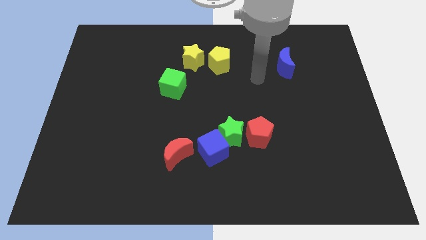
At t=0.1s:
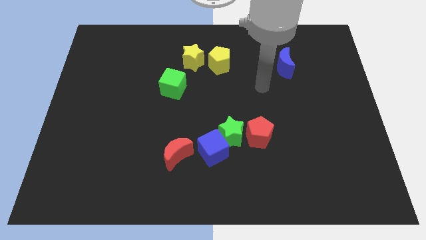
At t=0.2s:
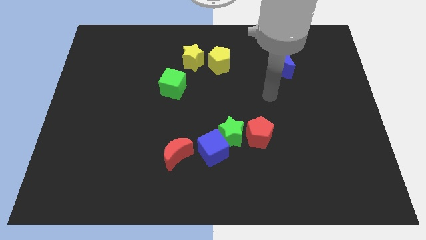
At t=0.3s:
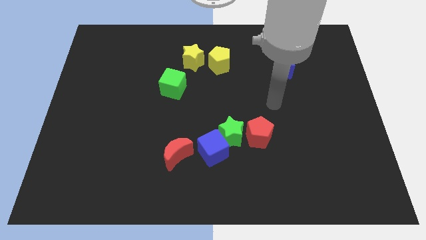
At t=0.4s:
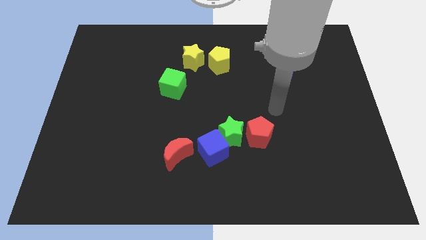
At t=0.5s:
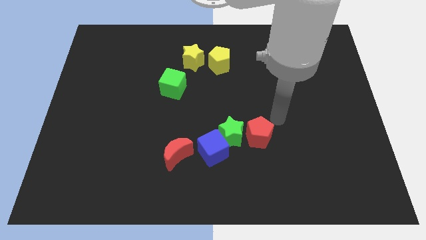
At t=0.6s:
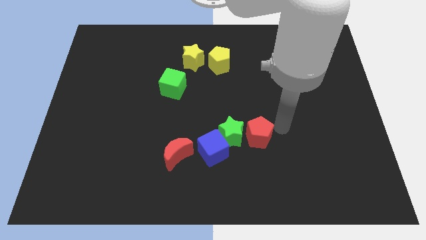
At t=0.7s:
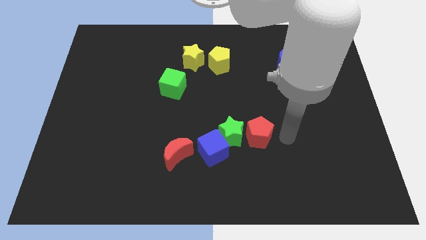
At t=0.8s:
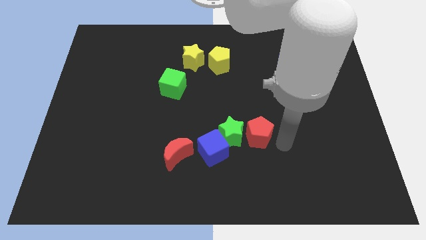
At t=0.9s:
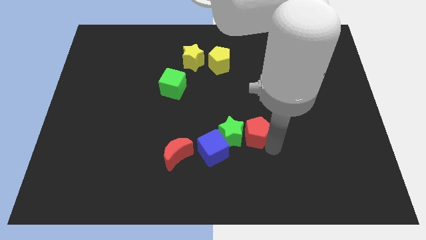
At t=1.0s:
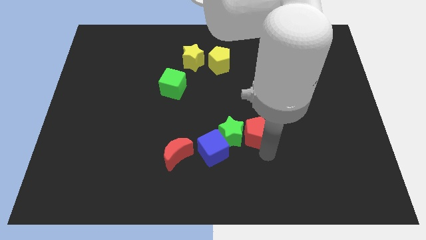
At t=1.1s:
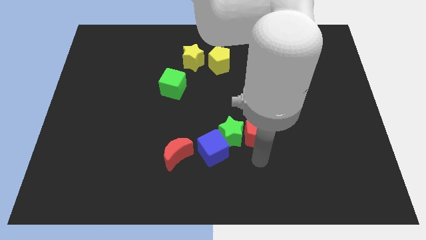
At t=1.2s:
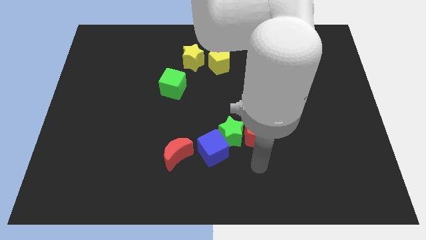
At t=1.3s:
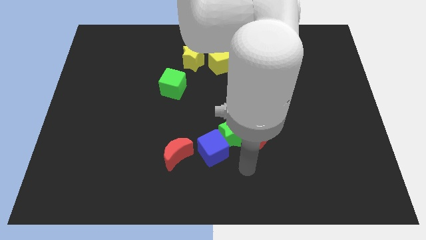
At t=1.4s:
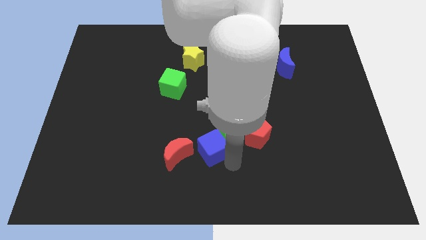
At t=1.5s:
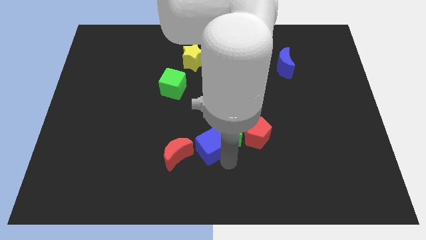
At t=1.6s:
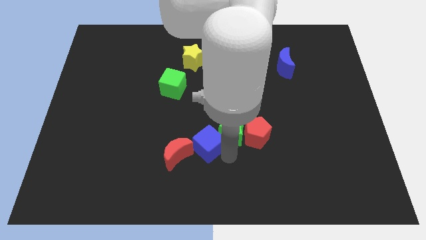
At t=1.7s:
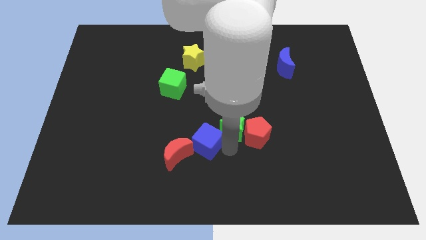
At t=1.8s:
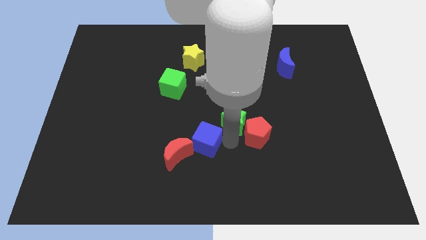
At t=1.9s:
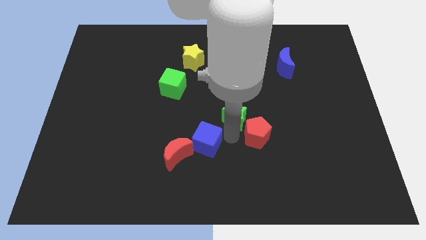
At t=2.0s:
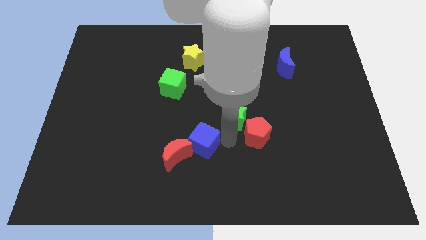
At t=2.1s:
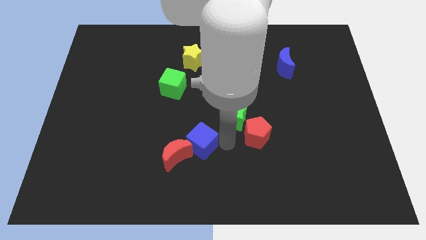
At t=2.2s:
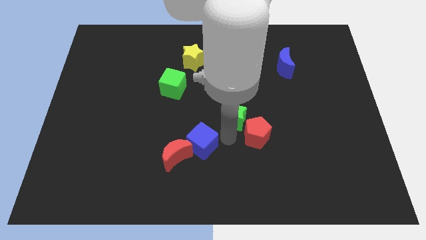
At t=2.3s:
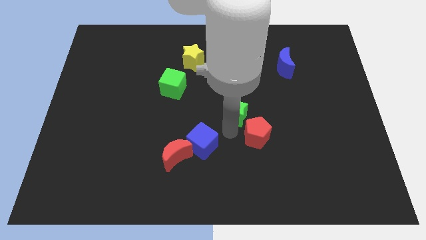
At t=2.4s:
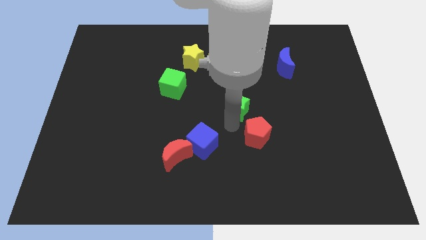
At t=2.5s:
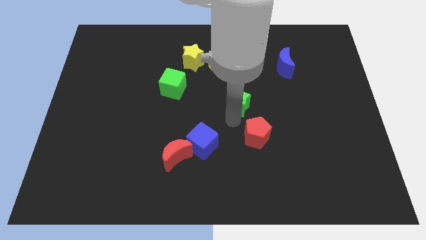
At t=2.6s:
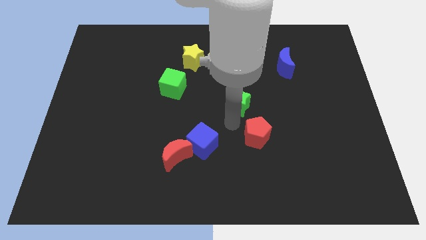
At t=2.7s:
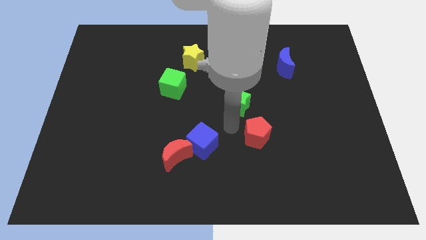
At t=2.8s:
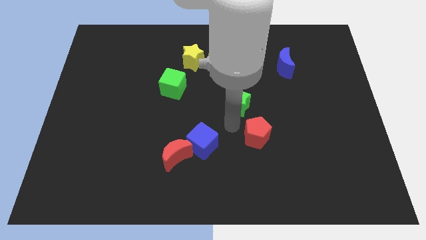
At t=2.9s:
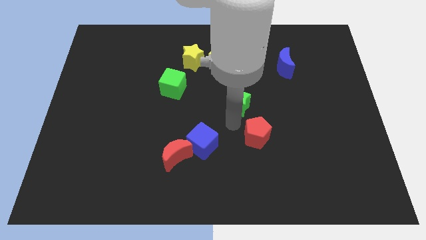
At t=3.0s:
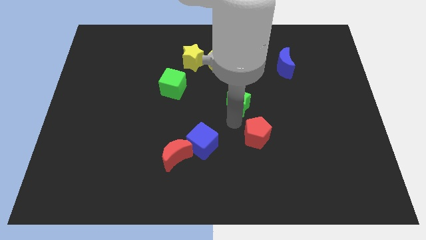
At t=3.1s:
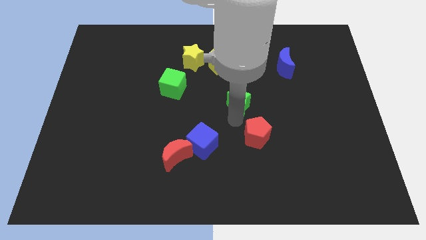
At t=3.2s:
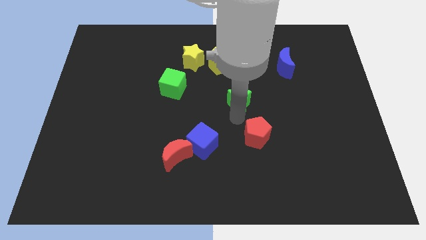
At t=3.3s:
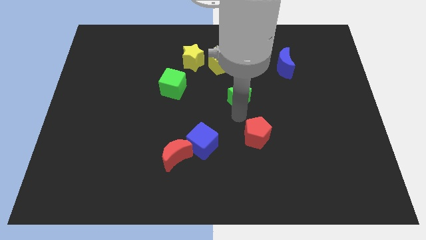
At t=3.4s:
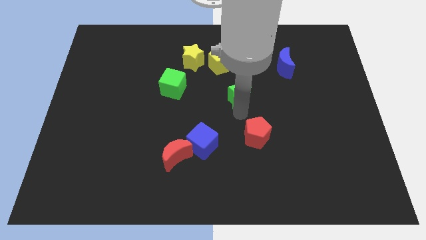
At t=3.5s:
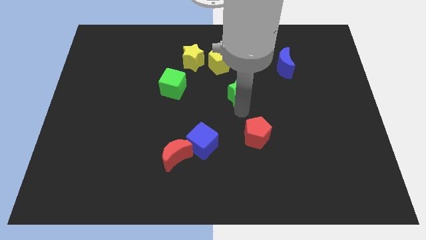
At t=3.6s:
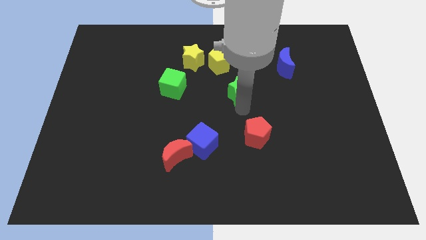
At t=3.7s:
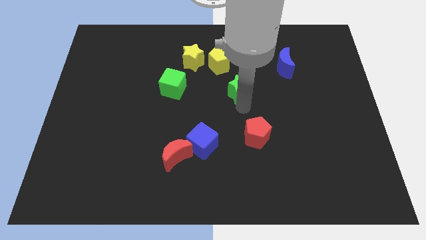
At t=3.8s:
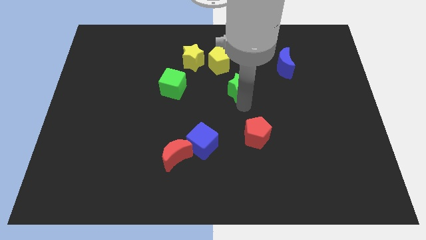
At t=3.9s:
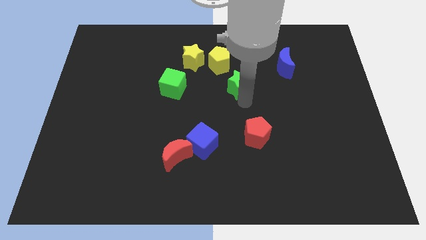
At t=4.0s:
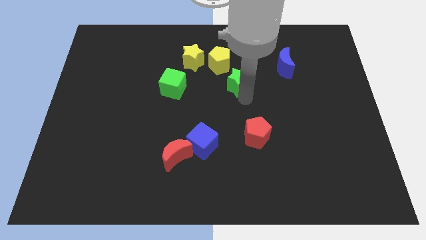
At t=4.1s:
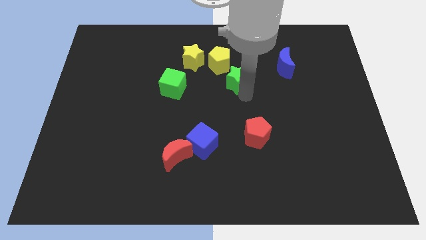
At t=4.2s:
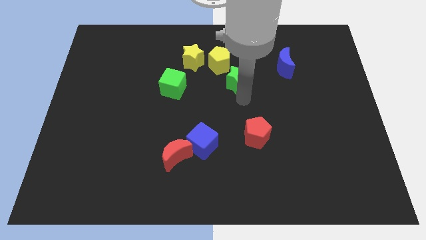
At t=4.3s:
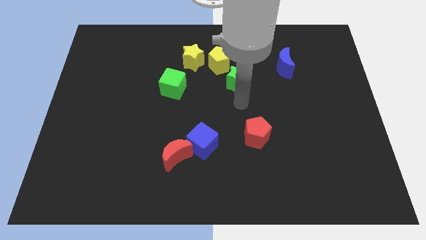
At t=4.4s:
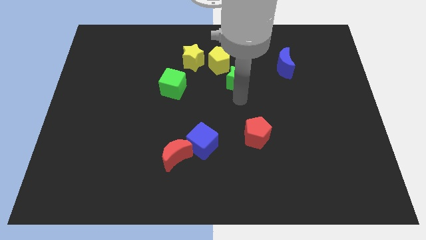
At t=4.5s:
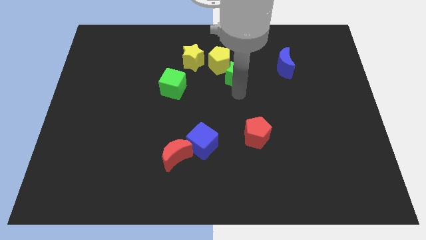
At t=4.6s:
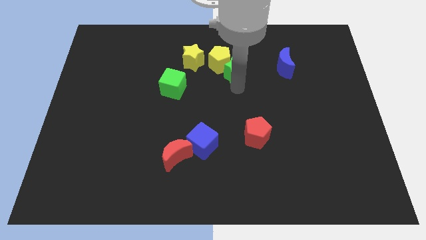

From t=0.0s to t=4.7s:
push the green star right of the yellow star

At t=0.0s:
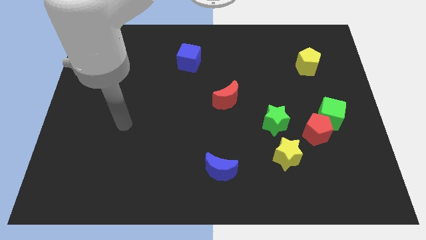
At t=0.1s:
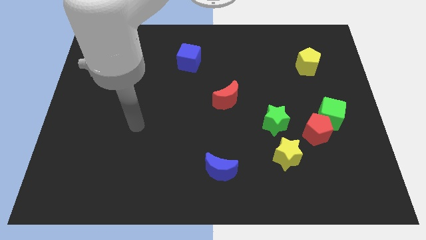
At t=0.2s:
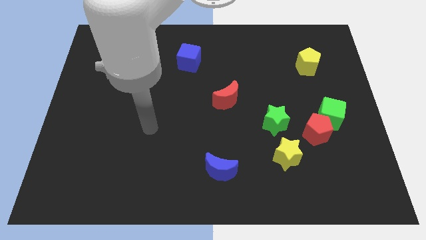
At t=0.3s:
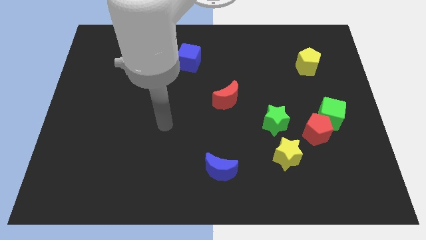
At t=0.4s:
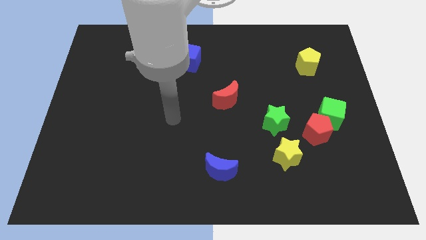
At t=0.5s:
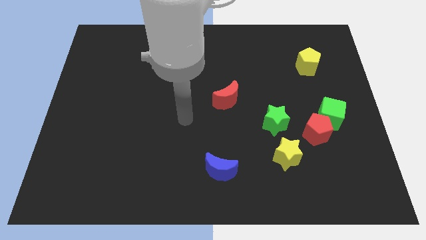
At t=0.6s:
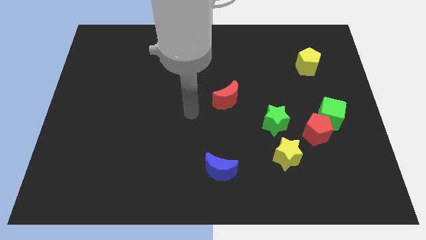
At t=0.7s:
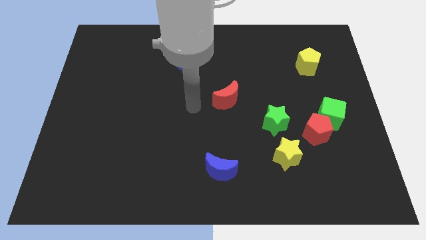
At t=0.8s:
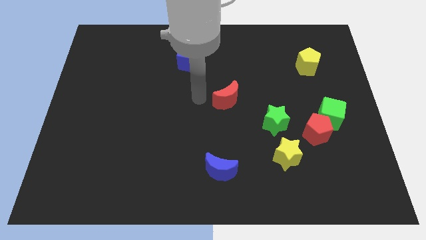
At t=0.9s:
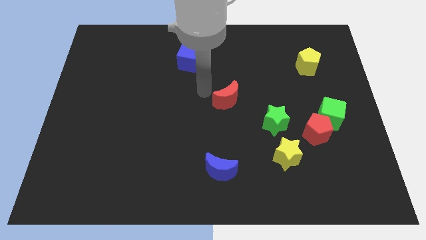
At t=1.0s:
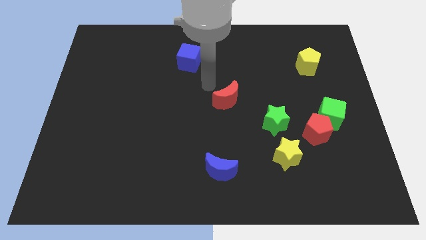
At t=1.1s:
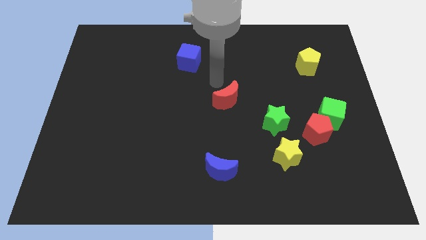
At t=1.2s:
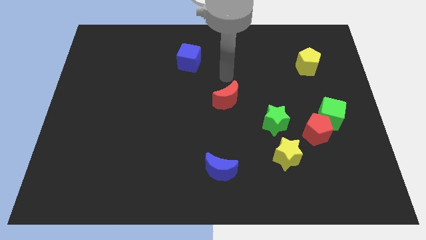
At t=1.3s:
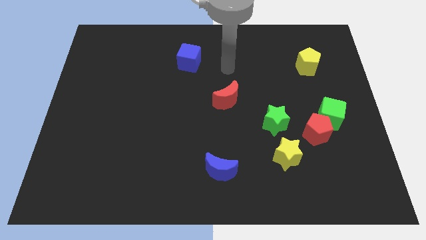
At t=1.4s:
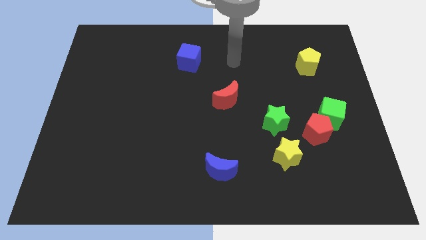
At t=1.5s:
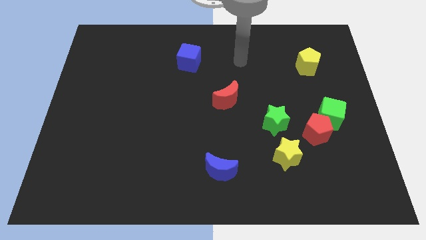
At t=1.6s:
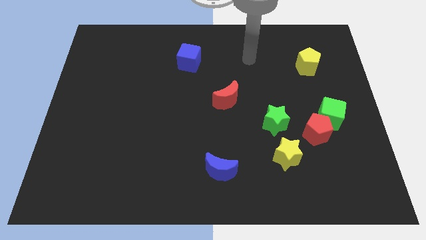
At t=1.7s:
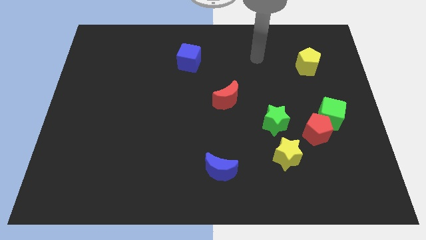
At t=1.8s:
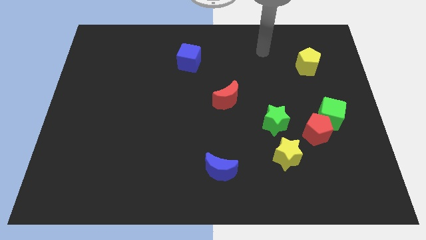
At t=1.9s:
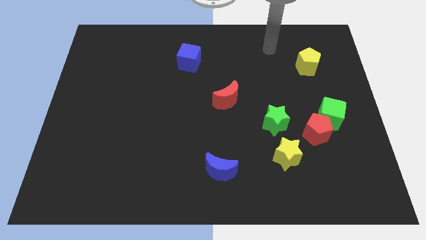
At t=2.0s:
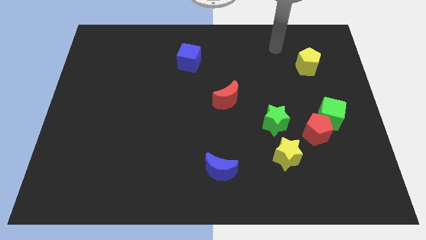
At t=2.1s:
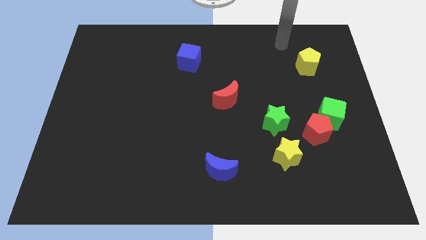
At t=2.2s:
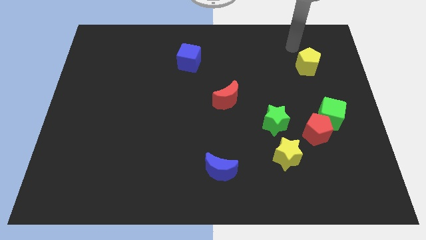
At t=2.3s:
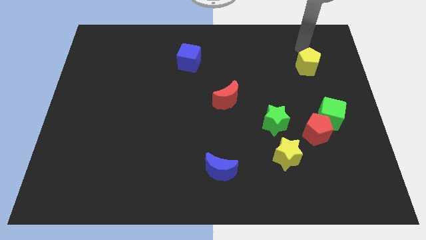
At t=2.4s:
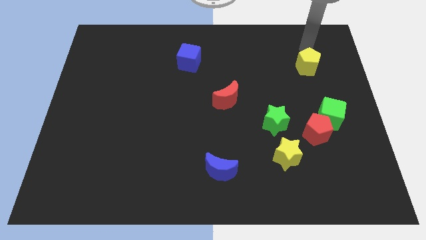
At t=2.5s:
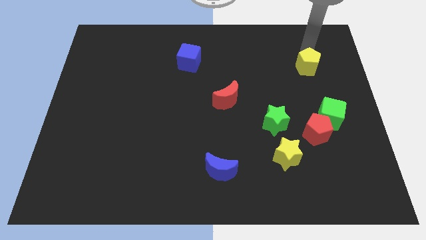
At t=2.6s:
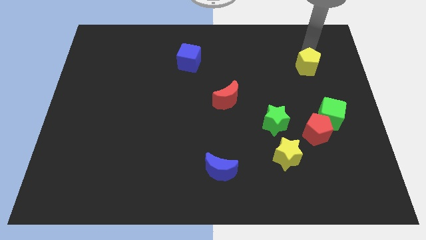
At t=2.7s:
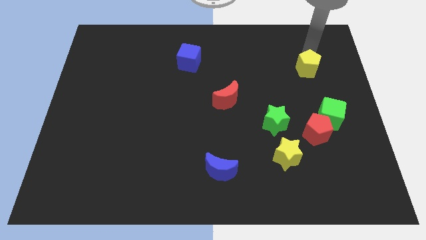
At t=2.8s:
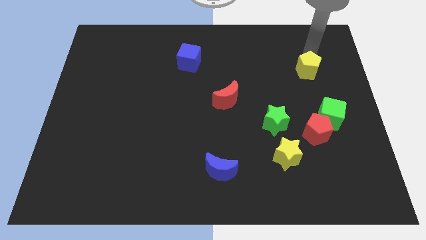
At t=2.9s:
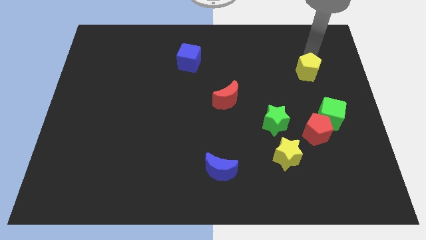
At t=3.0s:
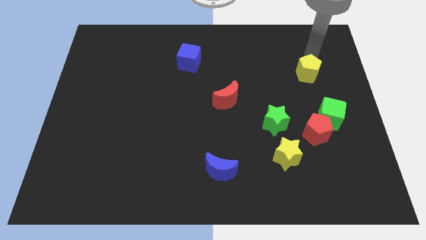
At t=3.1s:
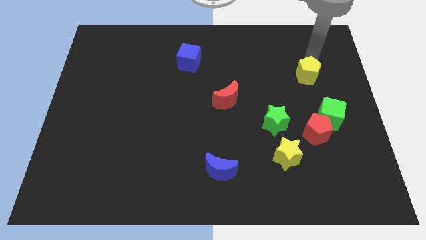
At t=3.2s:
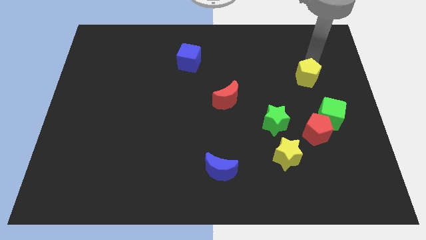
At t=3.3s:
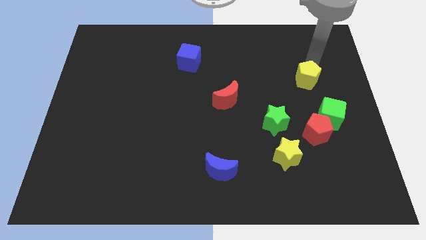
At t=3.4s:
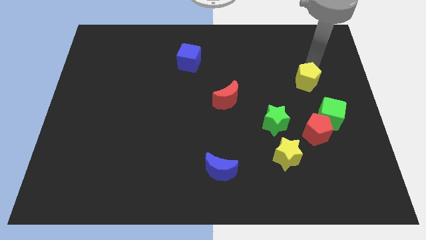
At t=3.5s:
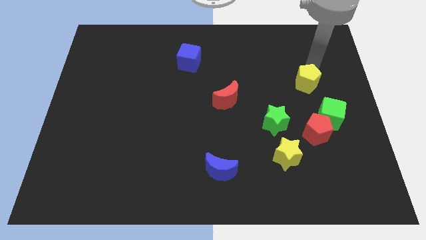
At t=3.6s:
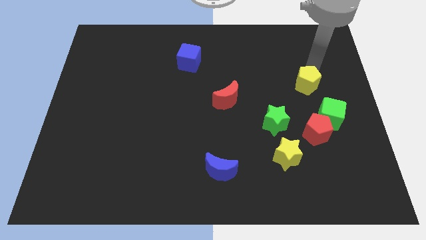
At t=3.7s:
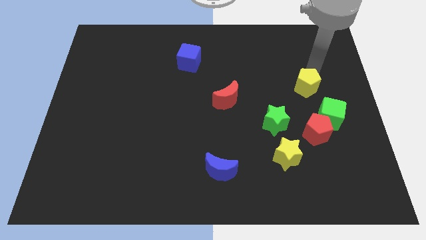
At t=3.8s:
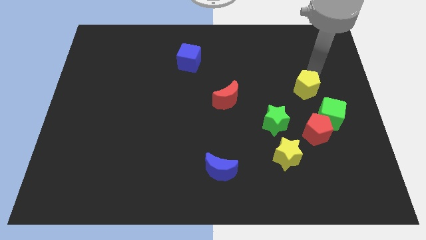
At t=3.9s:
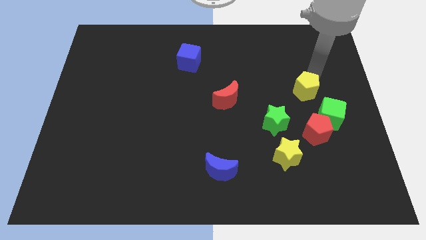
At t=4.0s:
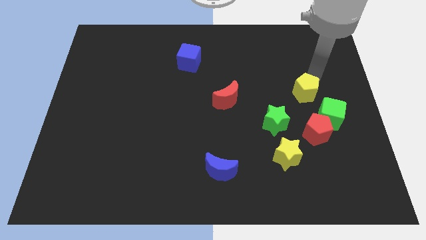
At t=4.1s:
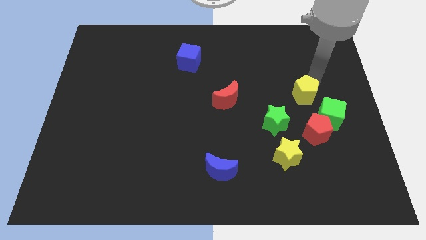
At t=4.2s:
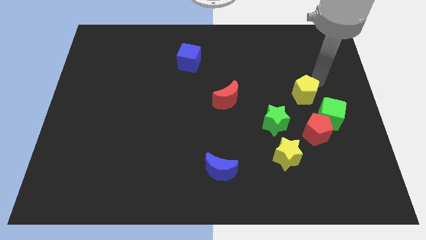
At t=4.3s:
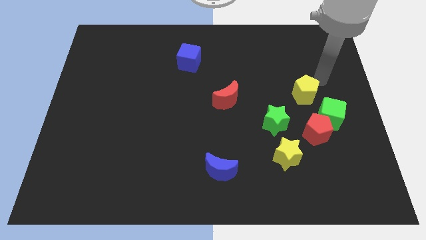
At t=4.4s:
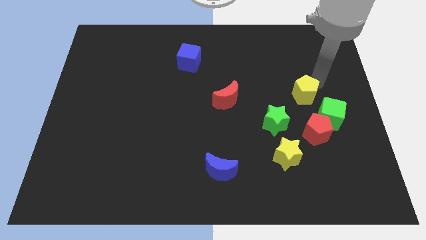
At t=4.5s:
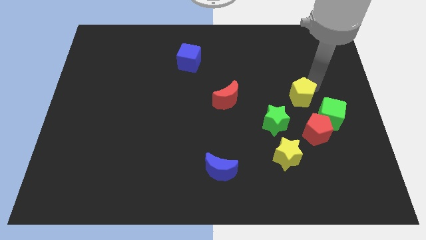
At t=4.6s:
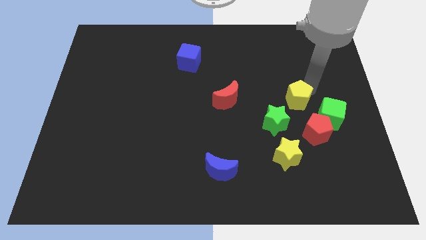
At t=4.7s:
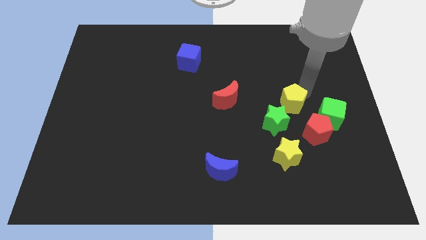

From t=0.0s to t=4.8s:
slide the yellow pentagon to the top side of the yellow star
